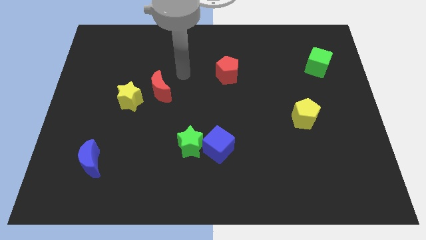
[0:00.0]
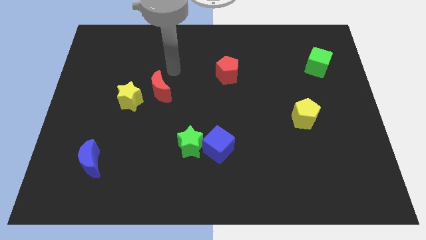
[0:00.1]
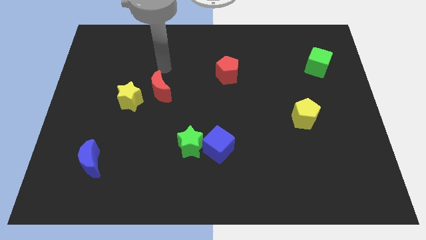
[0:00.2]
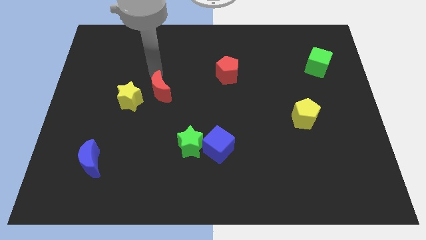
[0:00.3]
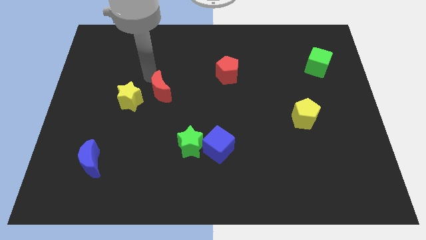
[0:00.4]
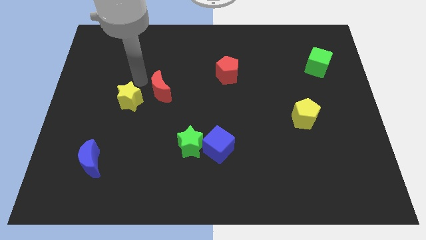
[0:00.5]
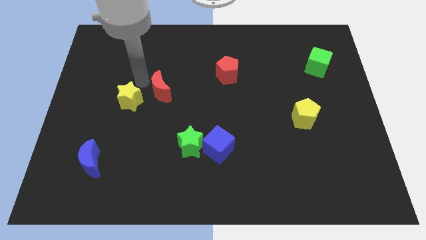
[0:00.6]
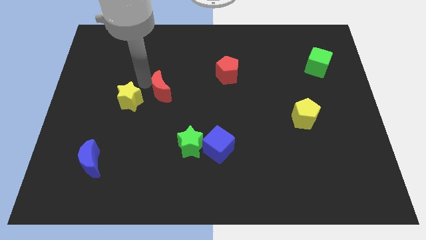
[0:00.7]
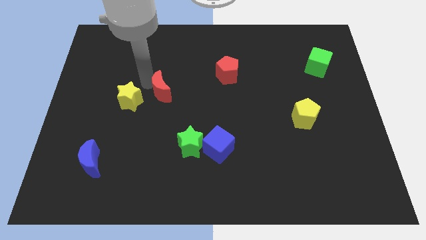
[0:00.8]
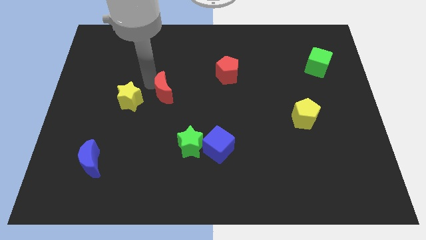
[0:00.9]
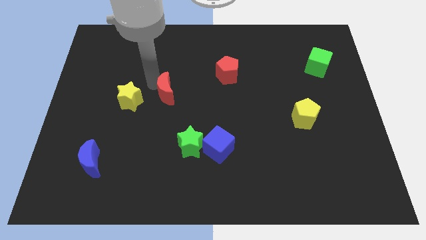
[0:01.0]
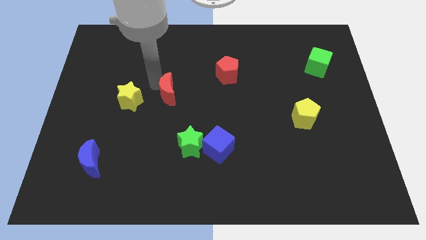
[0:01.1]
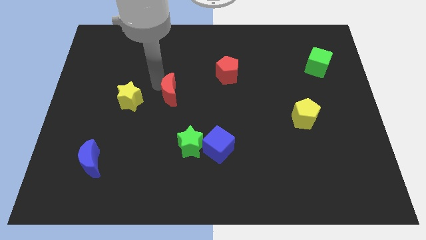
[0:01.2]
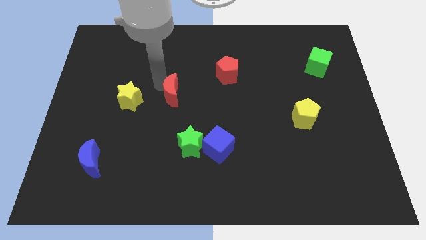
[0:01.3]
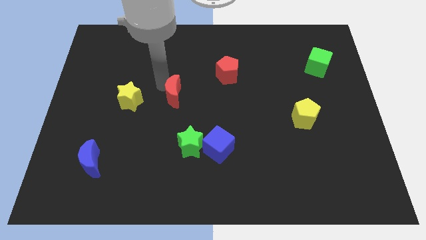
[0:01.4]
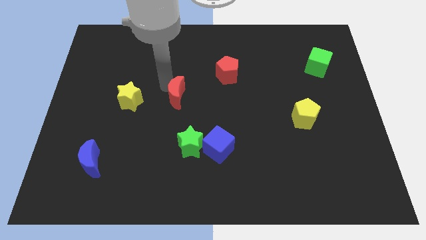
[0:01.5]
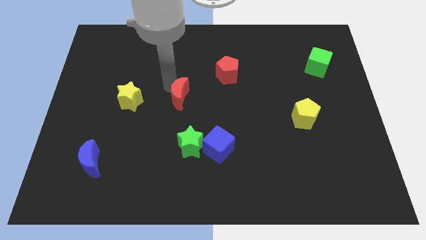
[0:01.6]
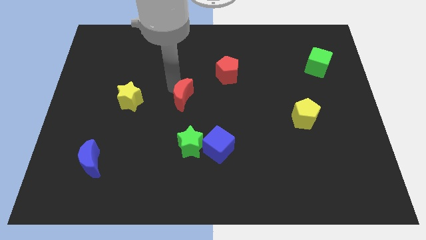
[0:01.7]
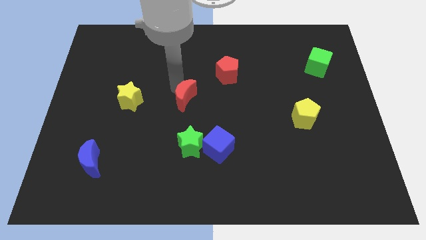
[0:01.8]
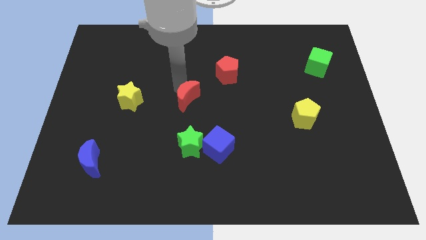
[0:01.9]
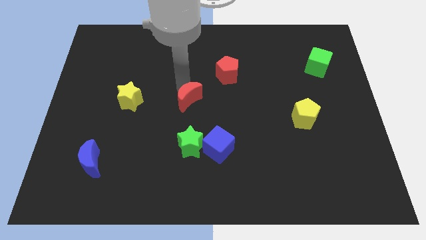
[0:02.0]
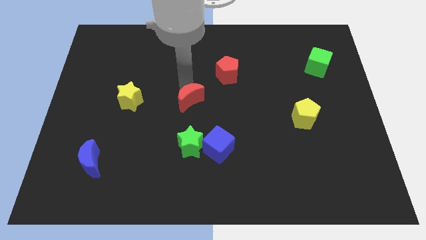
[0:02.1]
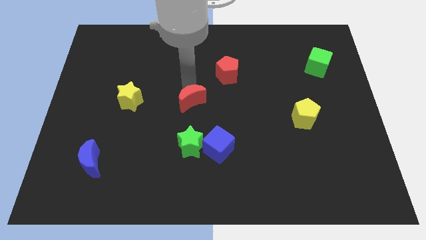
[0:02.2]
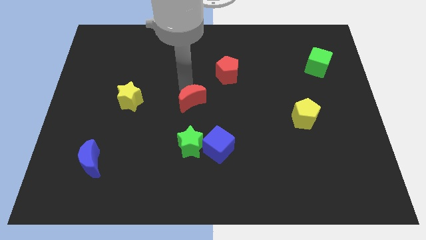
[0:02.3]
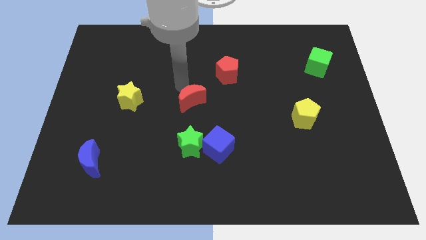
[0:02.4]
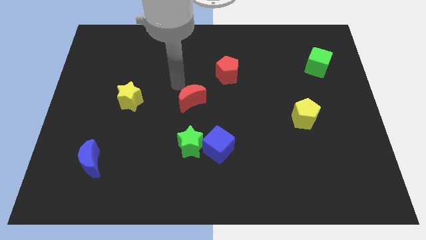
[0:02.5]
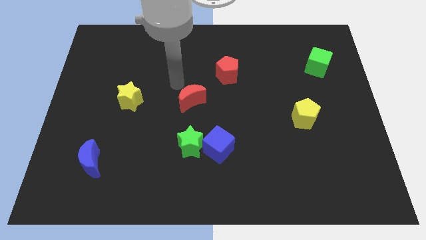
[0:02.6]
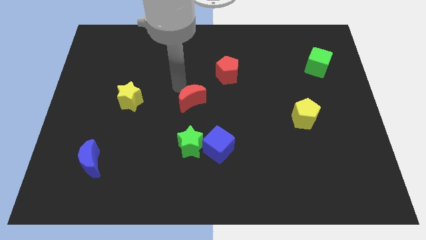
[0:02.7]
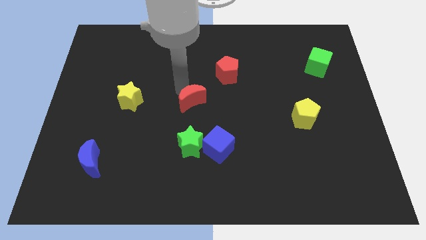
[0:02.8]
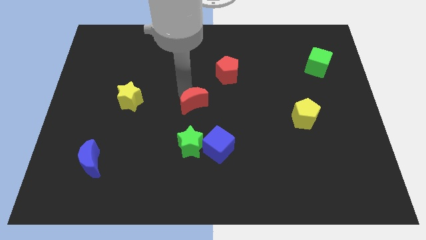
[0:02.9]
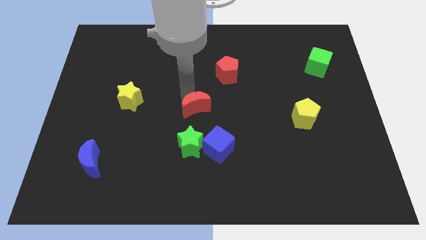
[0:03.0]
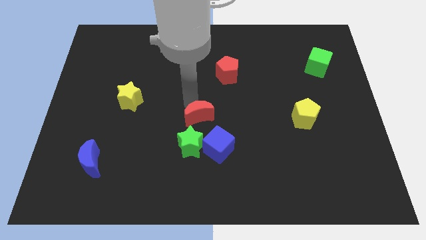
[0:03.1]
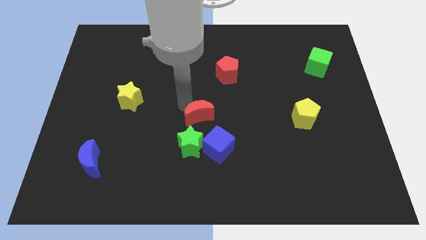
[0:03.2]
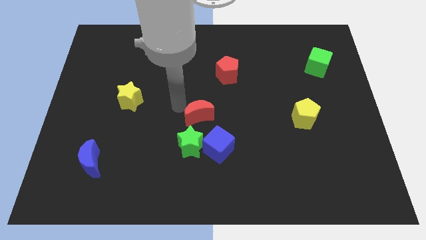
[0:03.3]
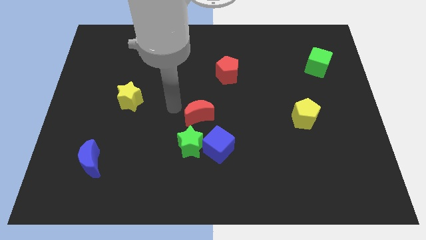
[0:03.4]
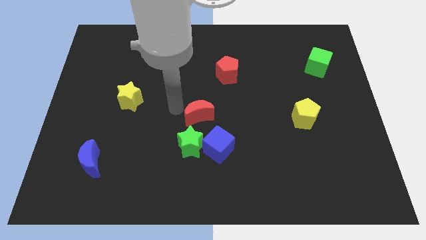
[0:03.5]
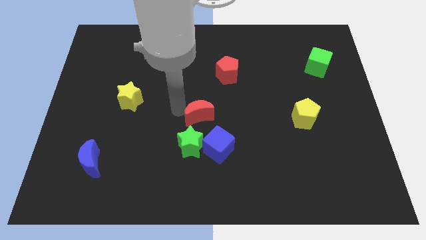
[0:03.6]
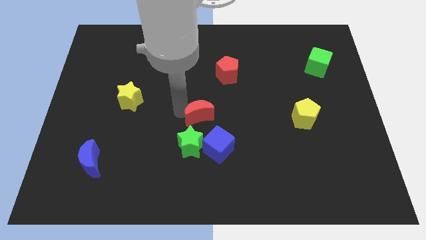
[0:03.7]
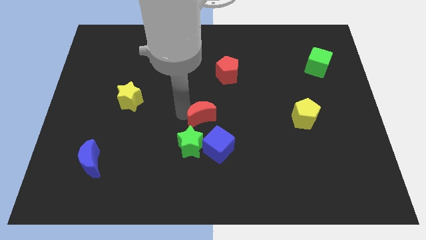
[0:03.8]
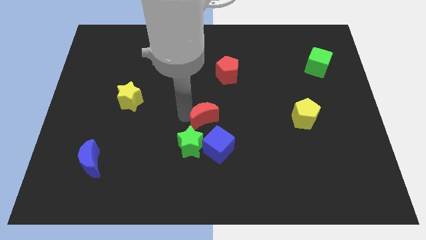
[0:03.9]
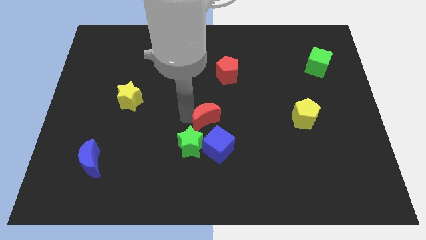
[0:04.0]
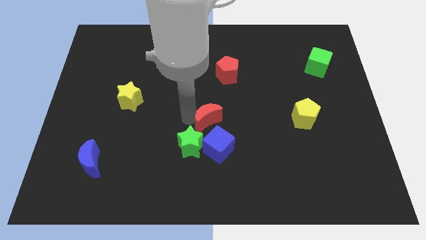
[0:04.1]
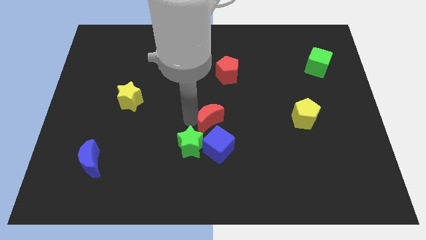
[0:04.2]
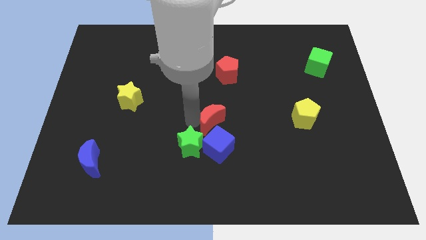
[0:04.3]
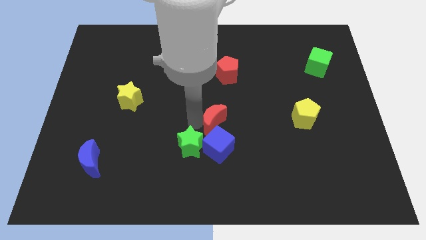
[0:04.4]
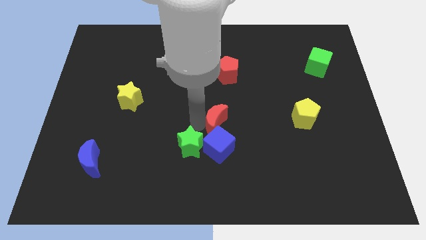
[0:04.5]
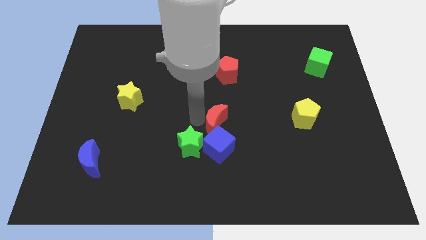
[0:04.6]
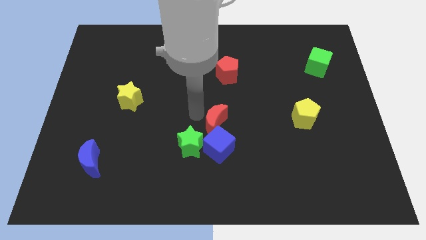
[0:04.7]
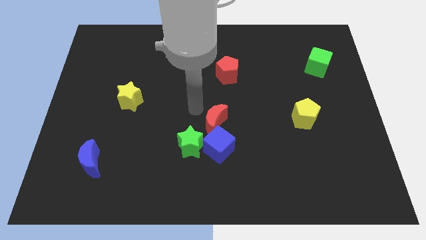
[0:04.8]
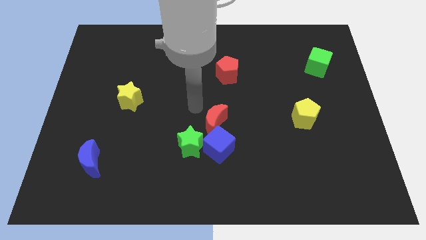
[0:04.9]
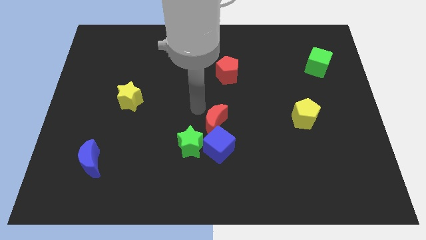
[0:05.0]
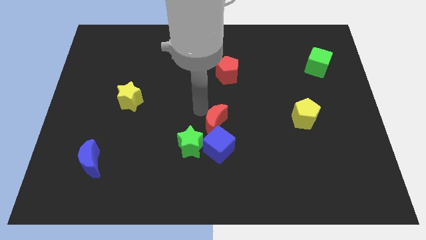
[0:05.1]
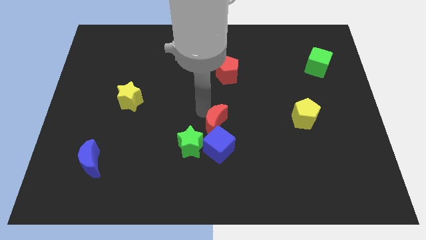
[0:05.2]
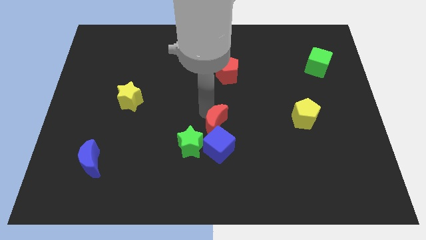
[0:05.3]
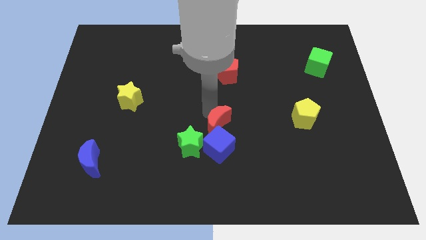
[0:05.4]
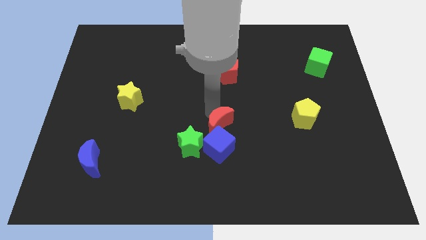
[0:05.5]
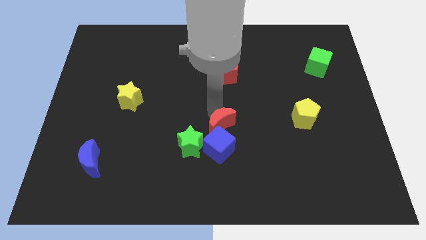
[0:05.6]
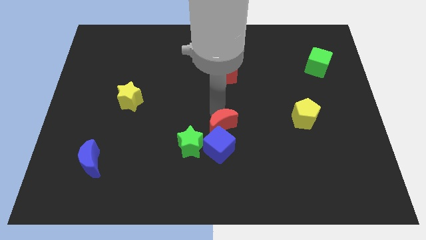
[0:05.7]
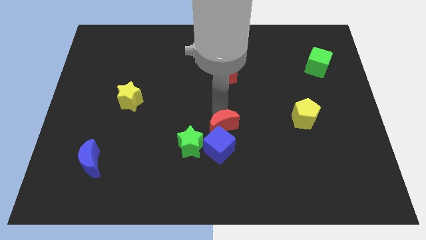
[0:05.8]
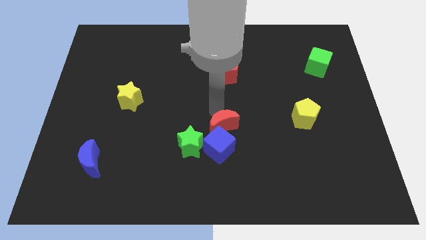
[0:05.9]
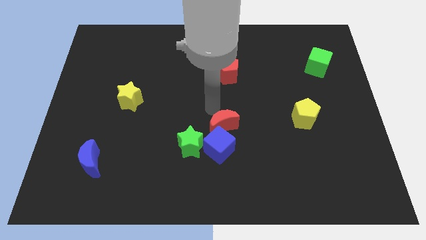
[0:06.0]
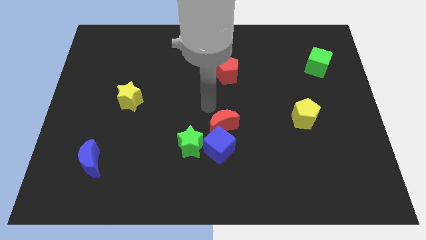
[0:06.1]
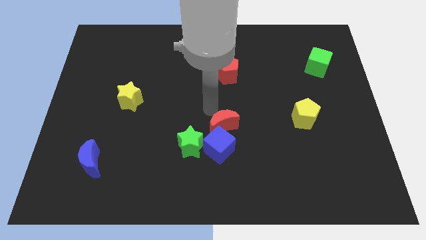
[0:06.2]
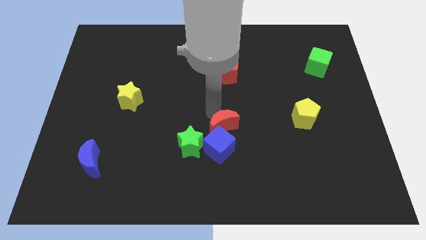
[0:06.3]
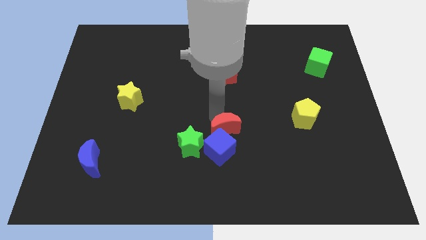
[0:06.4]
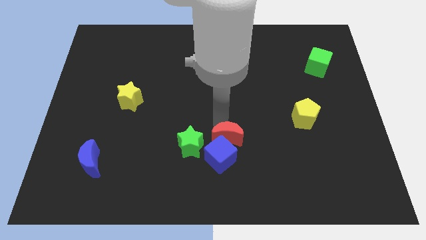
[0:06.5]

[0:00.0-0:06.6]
move the red moon down and then right

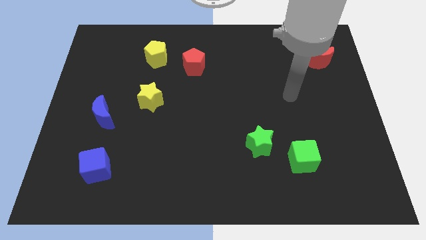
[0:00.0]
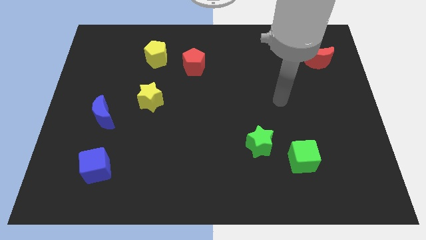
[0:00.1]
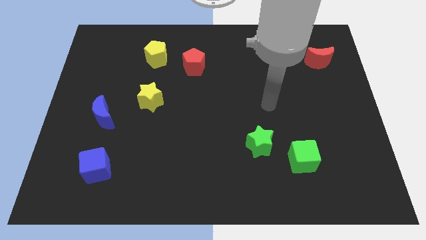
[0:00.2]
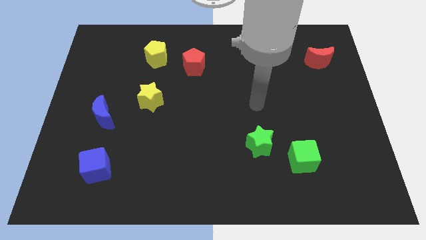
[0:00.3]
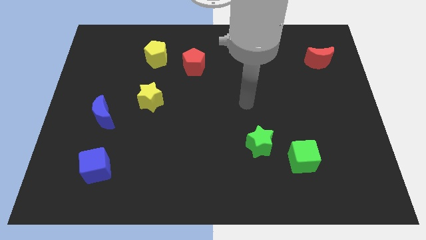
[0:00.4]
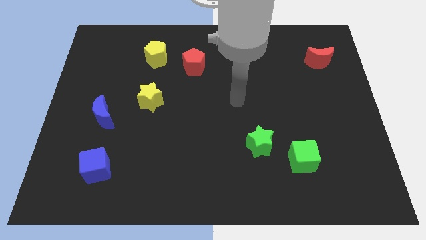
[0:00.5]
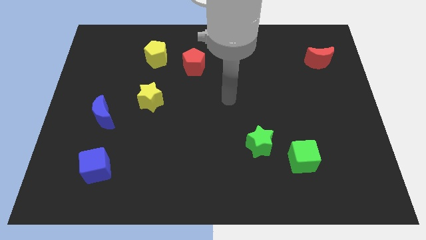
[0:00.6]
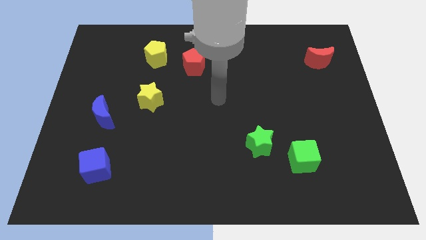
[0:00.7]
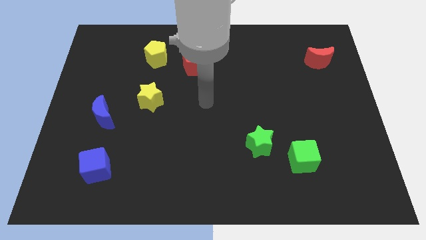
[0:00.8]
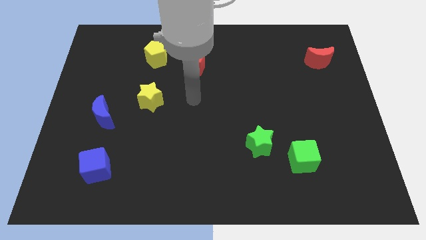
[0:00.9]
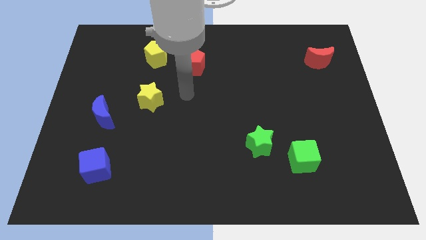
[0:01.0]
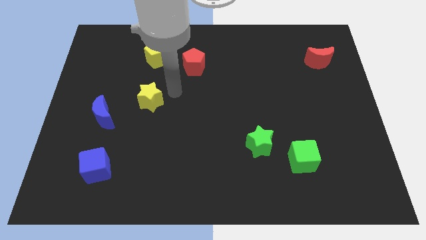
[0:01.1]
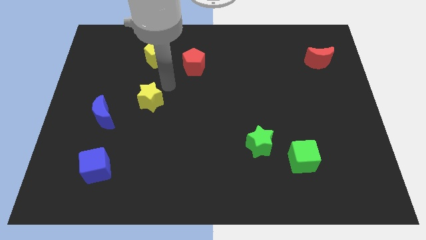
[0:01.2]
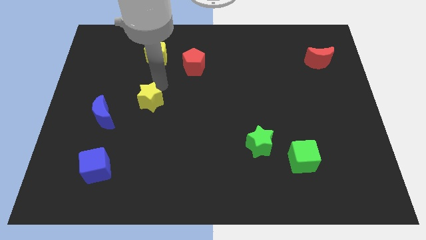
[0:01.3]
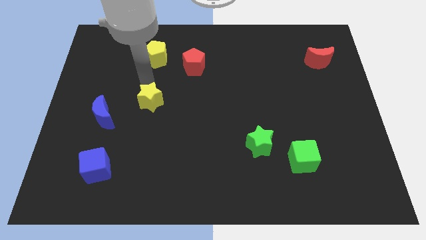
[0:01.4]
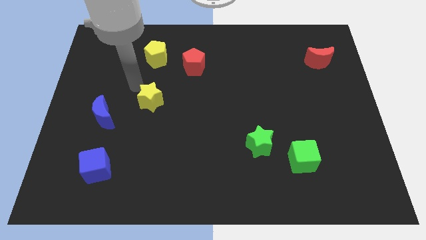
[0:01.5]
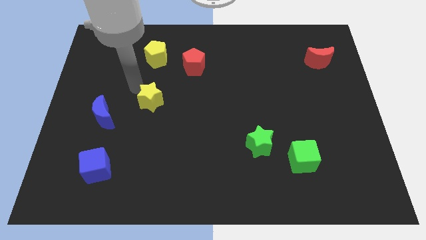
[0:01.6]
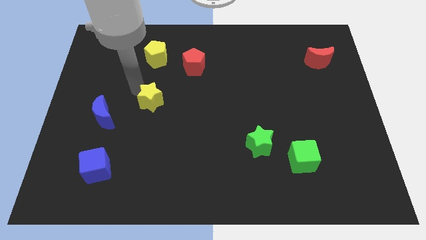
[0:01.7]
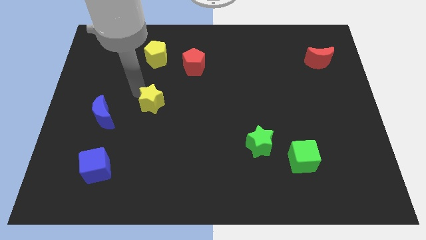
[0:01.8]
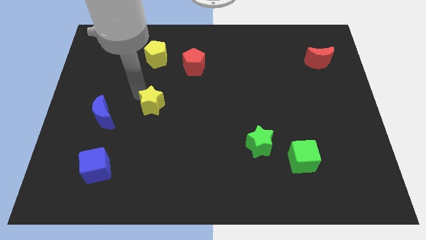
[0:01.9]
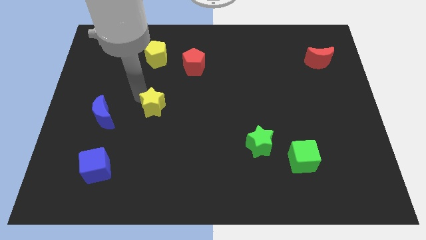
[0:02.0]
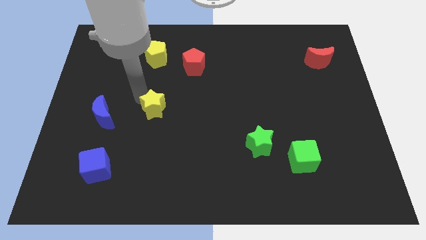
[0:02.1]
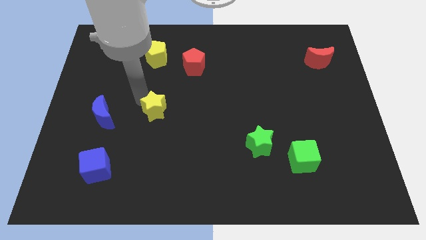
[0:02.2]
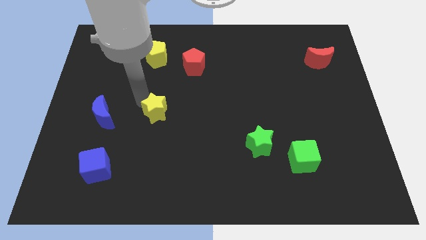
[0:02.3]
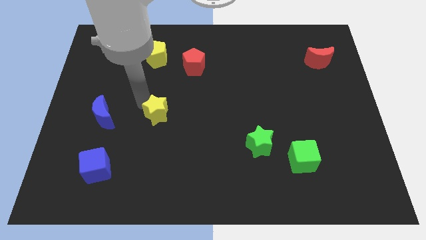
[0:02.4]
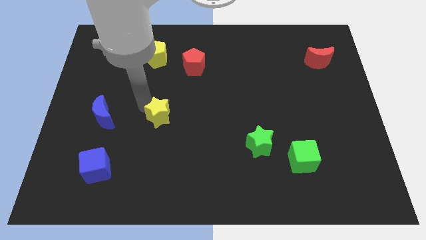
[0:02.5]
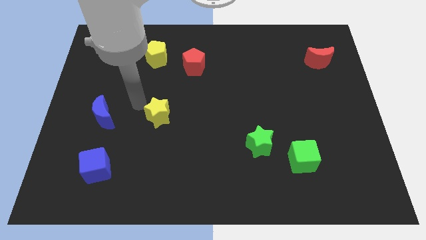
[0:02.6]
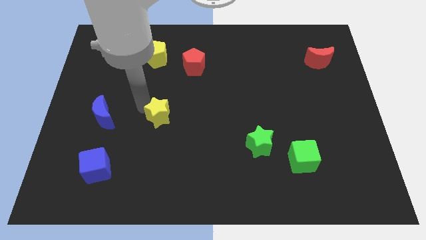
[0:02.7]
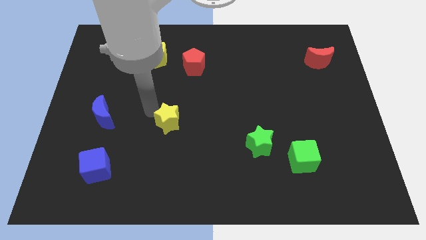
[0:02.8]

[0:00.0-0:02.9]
move the yellow star downwards and to the right slightly
